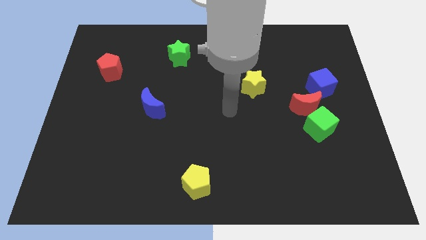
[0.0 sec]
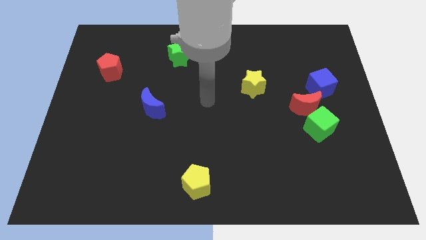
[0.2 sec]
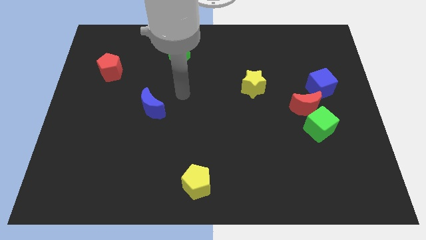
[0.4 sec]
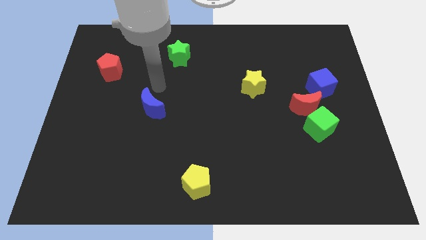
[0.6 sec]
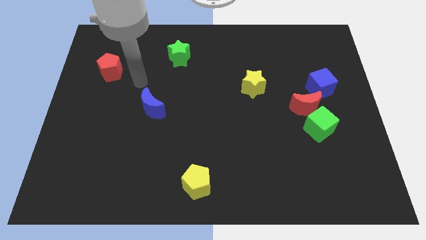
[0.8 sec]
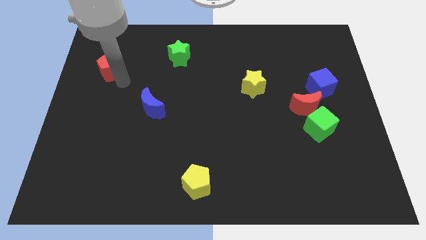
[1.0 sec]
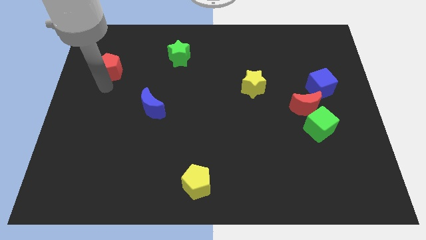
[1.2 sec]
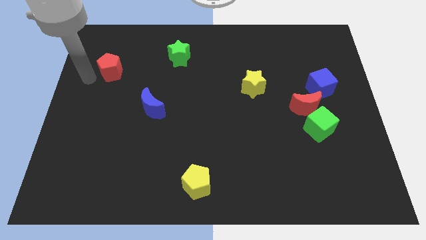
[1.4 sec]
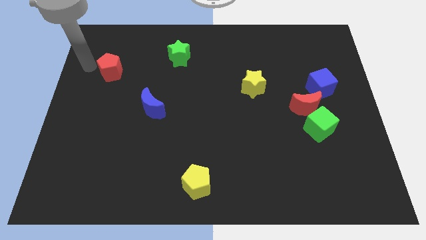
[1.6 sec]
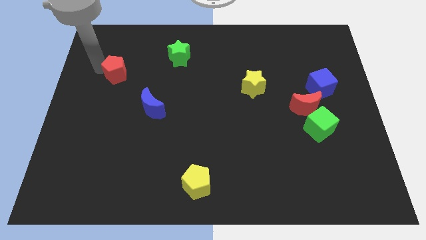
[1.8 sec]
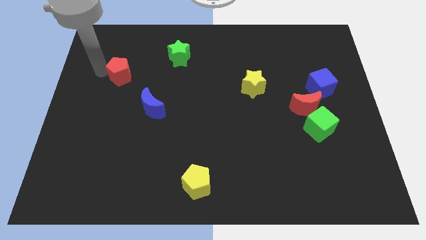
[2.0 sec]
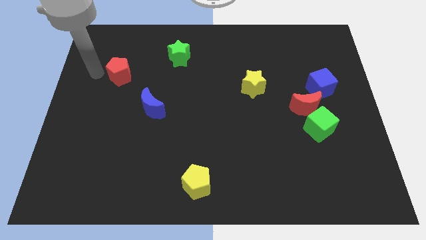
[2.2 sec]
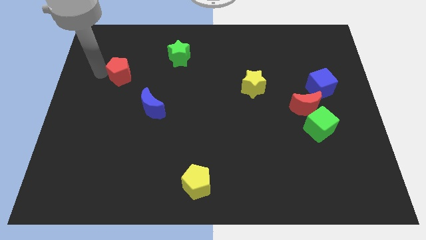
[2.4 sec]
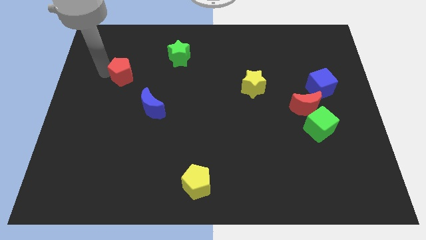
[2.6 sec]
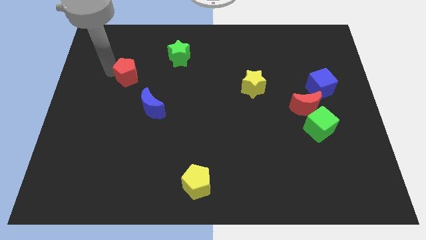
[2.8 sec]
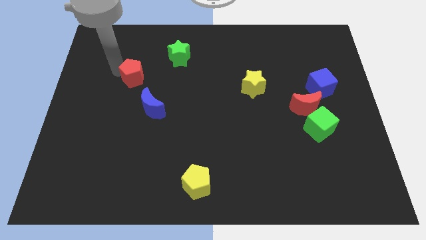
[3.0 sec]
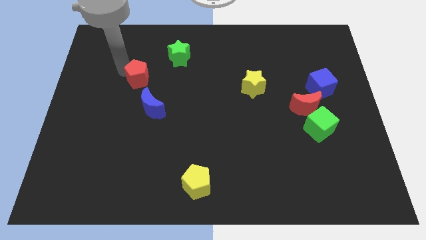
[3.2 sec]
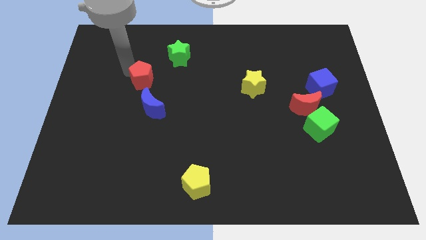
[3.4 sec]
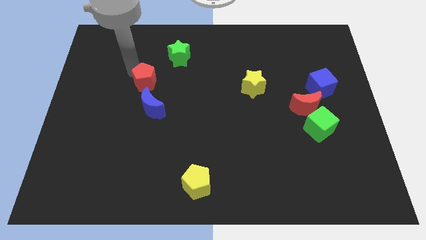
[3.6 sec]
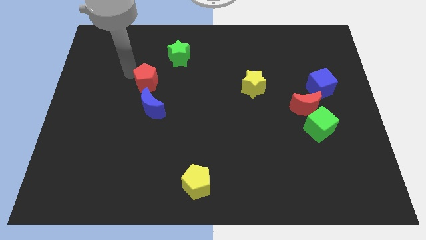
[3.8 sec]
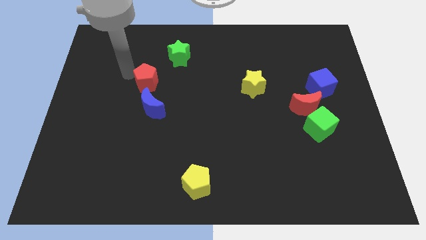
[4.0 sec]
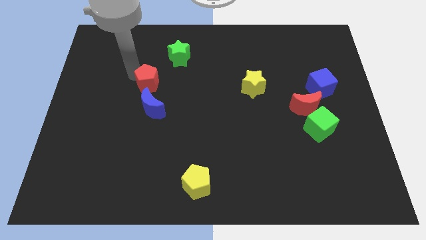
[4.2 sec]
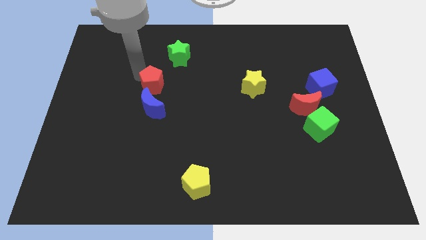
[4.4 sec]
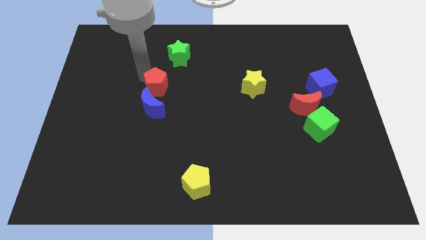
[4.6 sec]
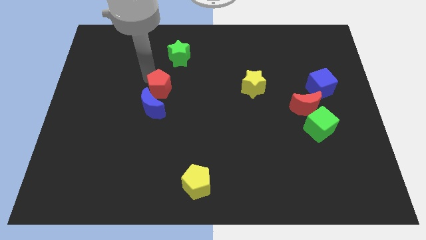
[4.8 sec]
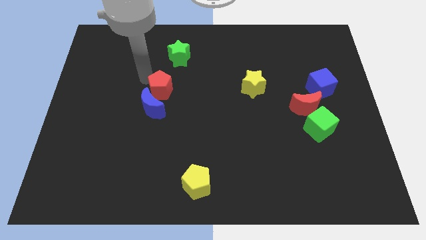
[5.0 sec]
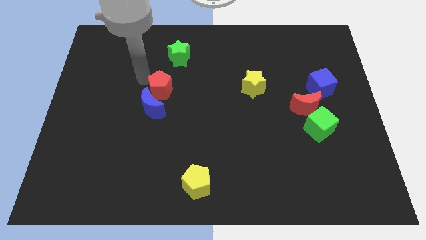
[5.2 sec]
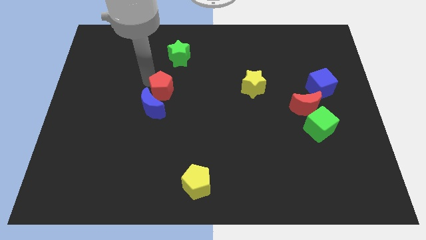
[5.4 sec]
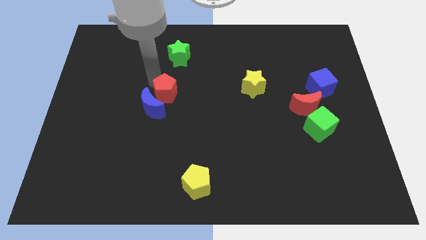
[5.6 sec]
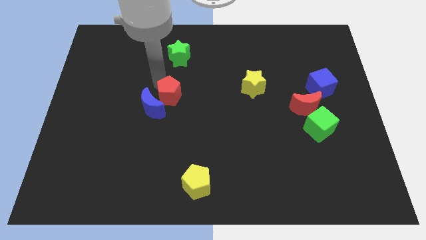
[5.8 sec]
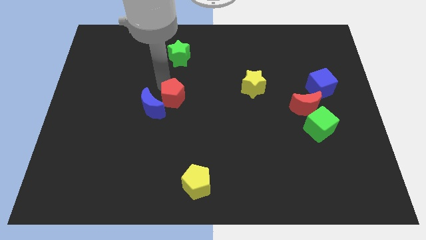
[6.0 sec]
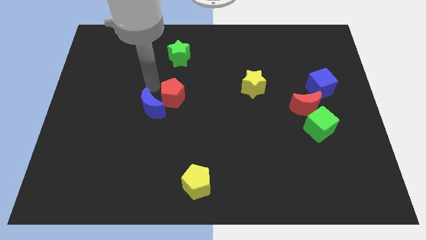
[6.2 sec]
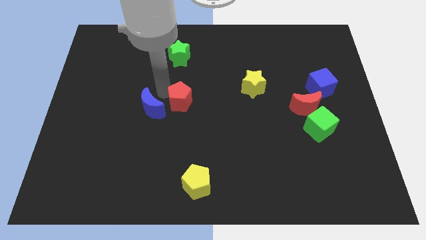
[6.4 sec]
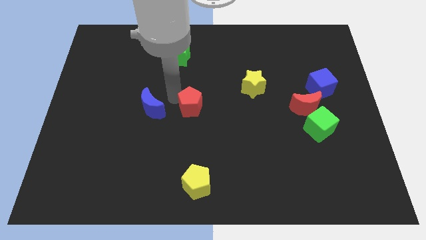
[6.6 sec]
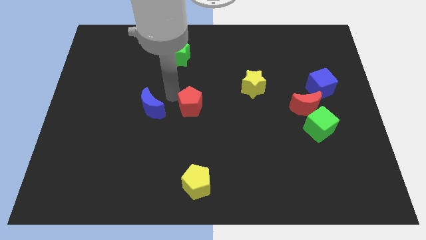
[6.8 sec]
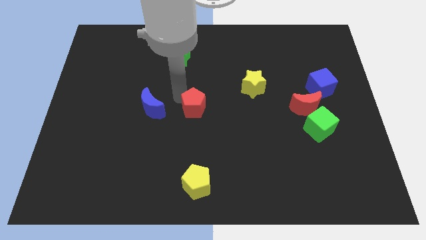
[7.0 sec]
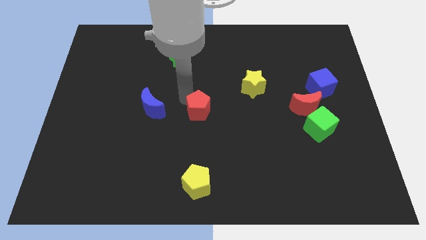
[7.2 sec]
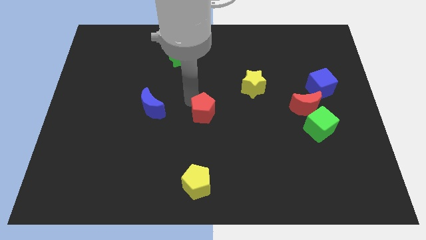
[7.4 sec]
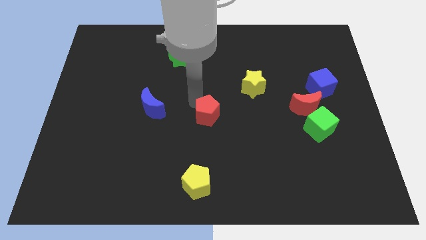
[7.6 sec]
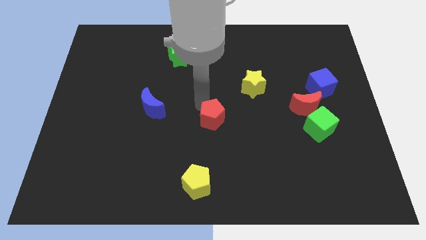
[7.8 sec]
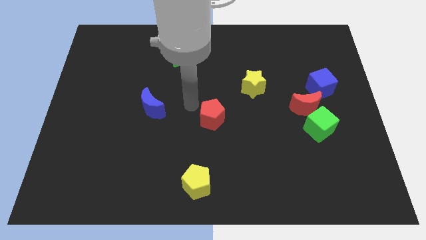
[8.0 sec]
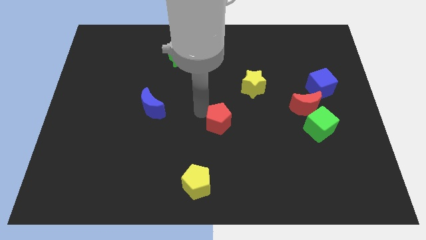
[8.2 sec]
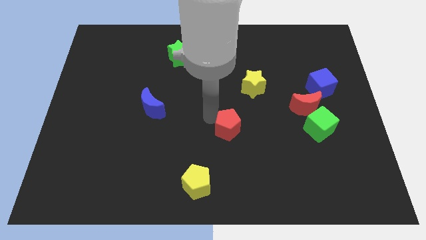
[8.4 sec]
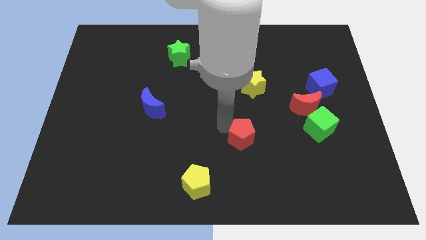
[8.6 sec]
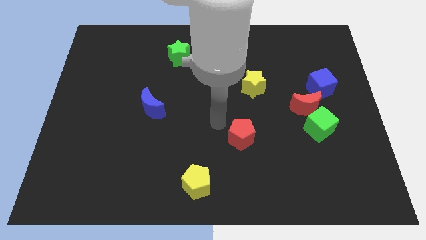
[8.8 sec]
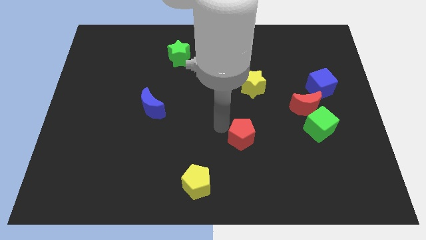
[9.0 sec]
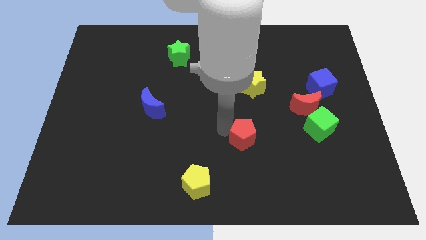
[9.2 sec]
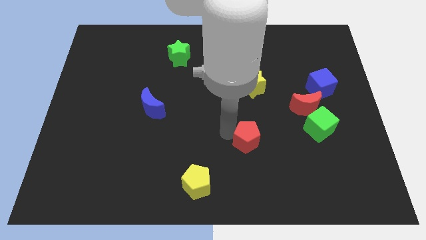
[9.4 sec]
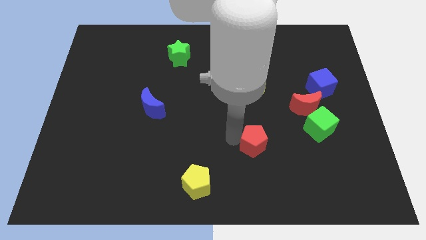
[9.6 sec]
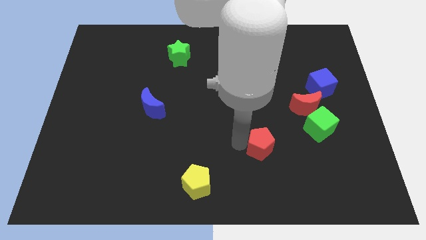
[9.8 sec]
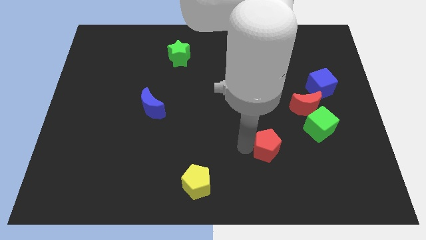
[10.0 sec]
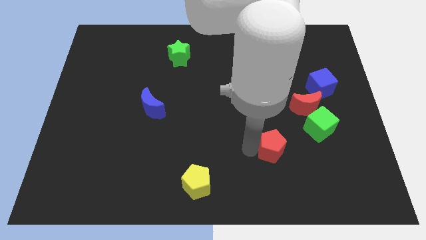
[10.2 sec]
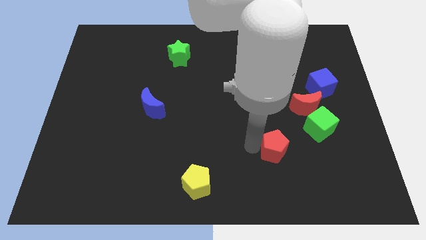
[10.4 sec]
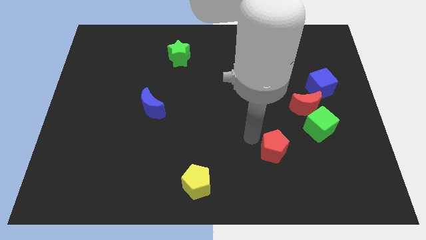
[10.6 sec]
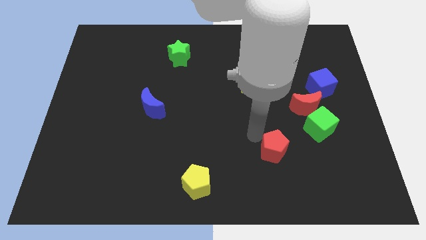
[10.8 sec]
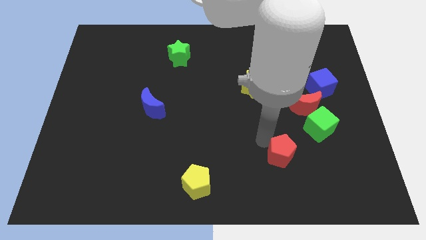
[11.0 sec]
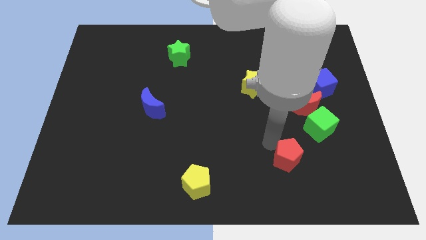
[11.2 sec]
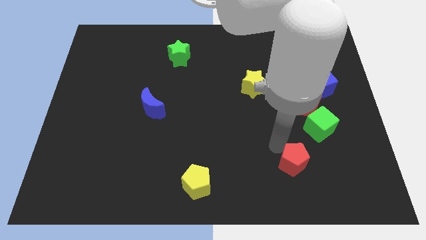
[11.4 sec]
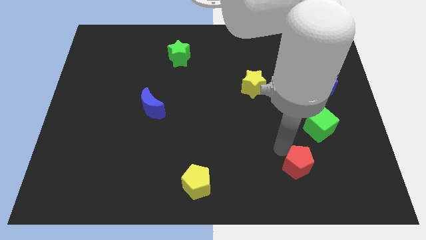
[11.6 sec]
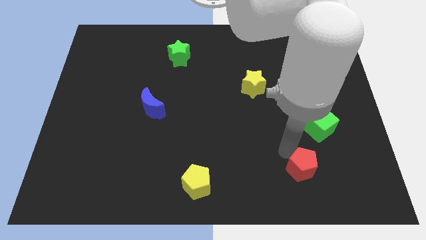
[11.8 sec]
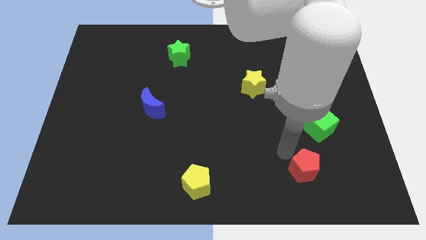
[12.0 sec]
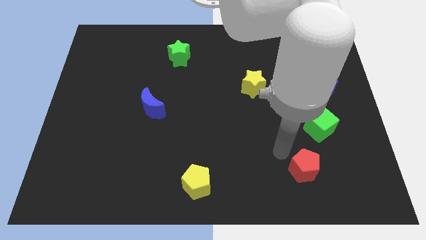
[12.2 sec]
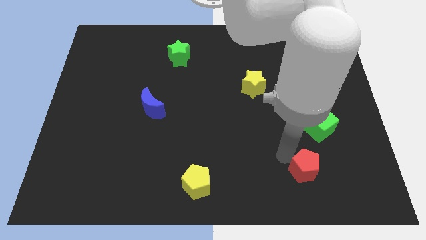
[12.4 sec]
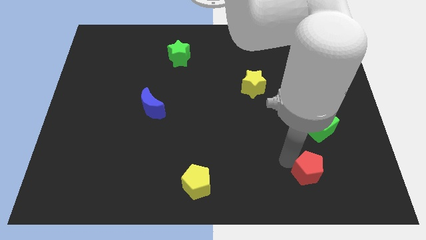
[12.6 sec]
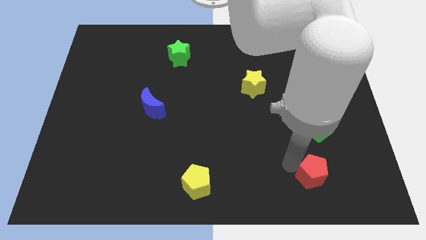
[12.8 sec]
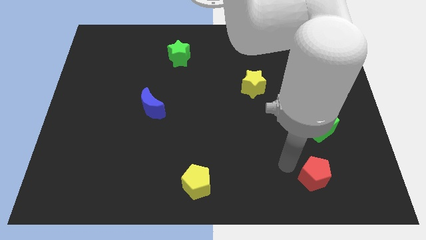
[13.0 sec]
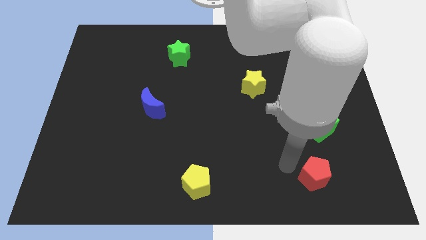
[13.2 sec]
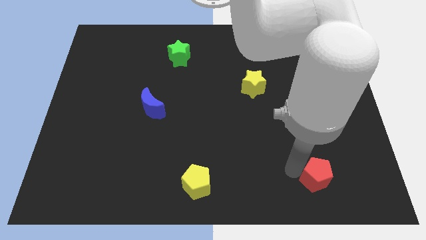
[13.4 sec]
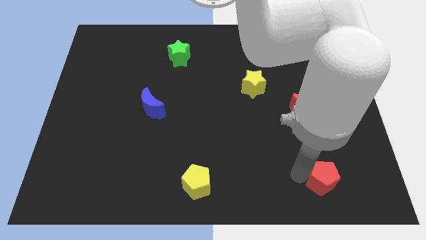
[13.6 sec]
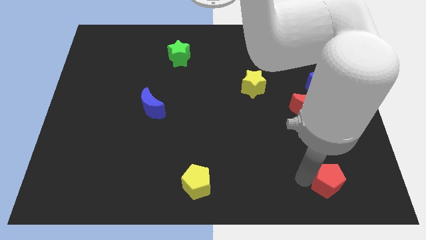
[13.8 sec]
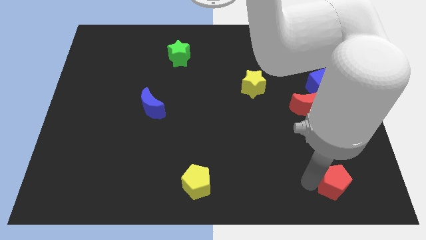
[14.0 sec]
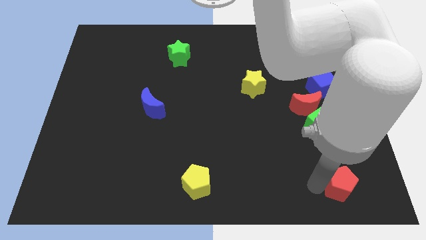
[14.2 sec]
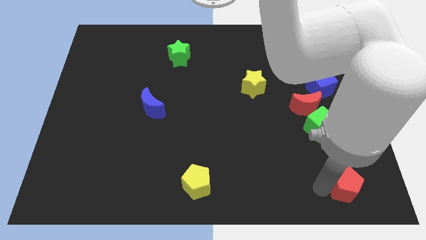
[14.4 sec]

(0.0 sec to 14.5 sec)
move the red pentagon to the bottom right of the board

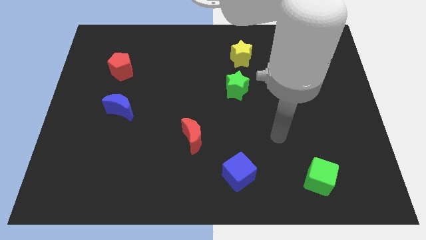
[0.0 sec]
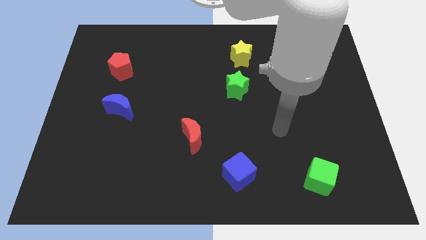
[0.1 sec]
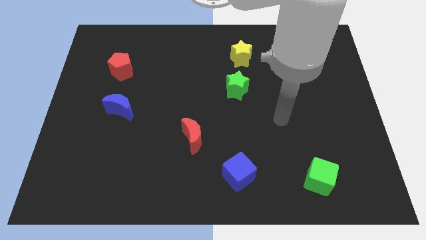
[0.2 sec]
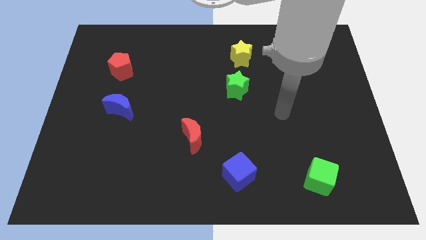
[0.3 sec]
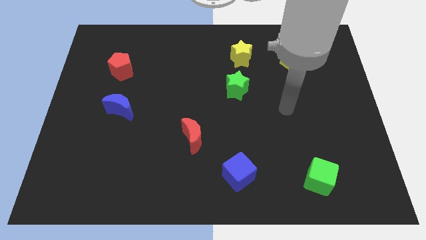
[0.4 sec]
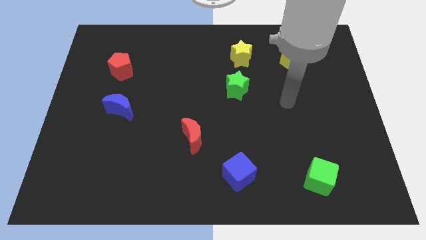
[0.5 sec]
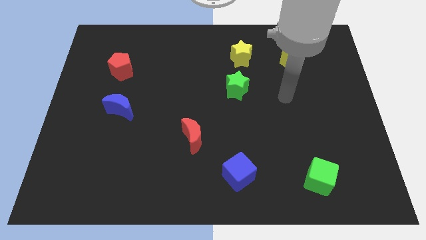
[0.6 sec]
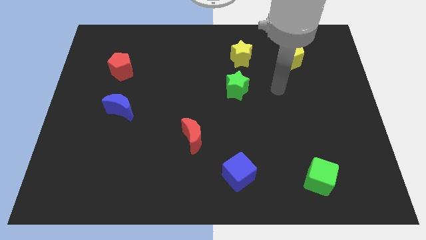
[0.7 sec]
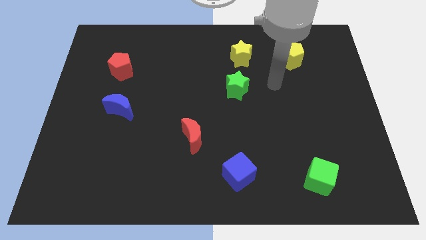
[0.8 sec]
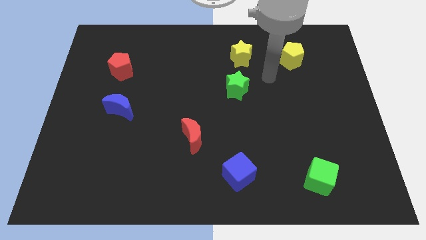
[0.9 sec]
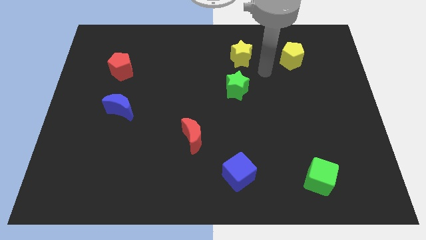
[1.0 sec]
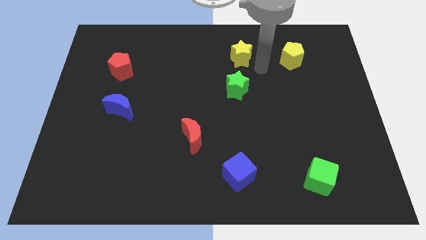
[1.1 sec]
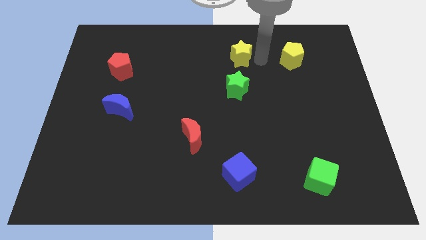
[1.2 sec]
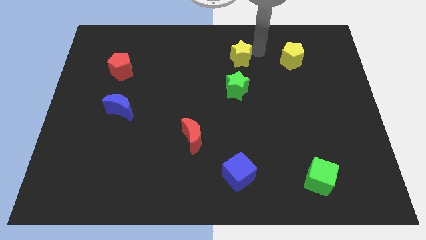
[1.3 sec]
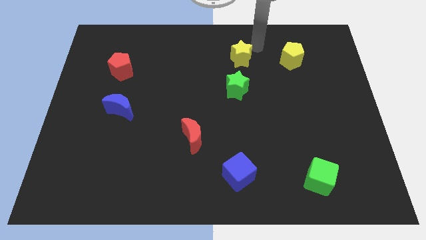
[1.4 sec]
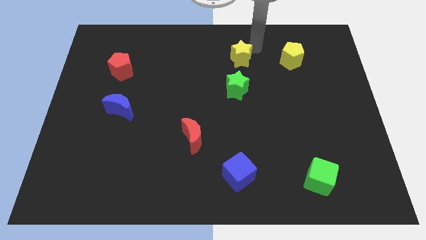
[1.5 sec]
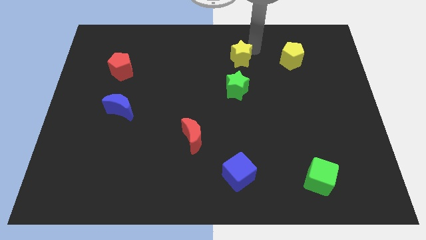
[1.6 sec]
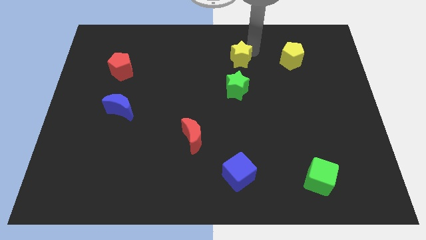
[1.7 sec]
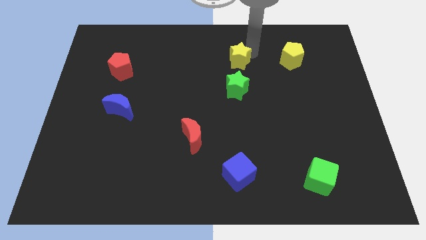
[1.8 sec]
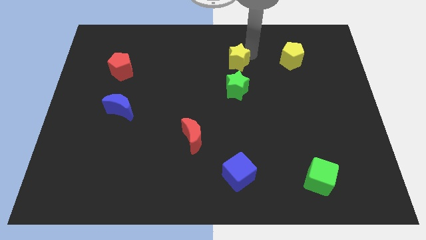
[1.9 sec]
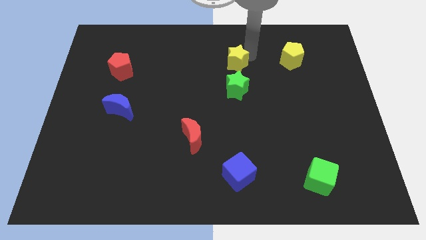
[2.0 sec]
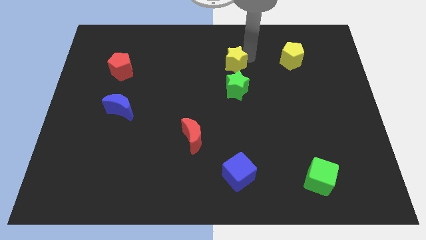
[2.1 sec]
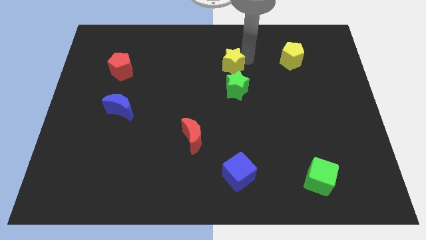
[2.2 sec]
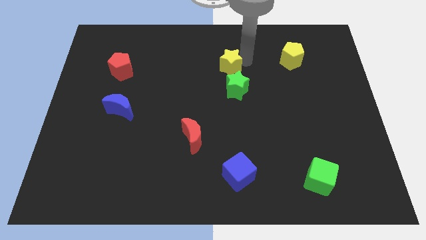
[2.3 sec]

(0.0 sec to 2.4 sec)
move the yellow star to the center of the board
